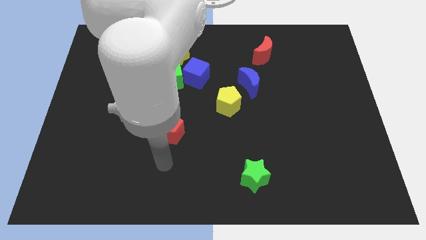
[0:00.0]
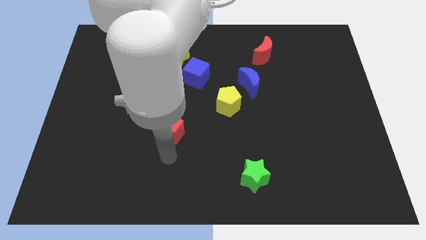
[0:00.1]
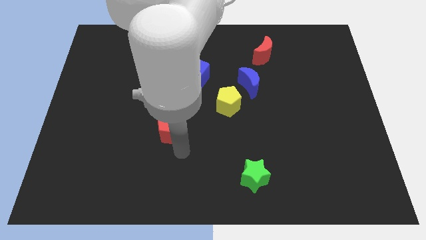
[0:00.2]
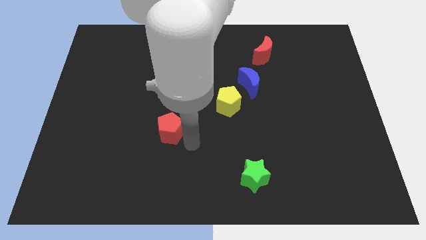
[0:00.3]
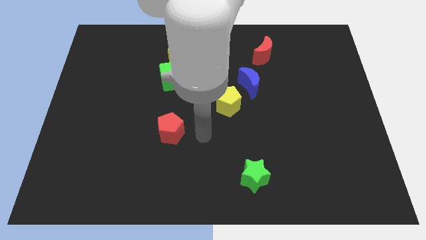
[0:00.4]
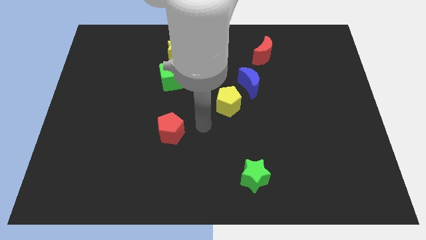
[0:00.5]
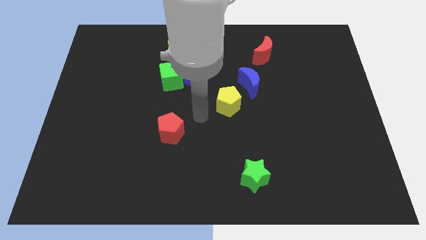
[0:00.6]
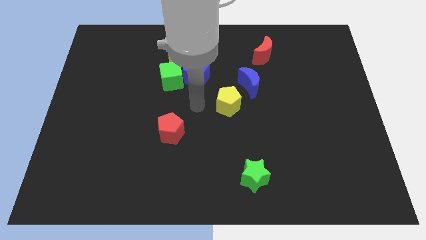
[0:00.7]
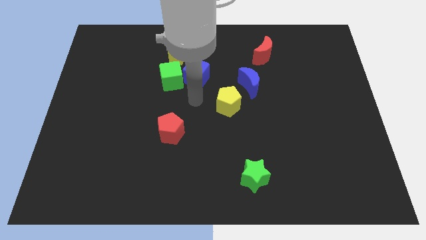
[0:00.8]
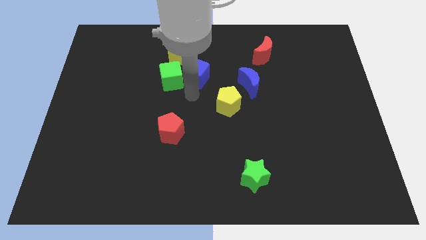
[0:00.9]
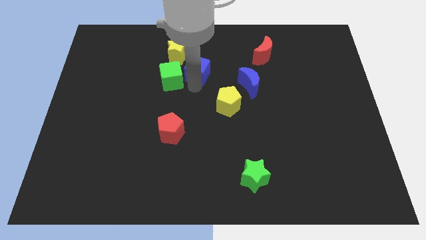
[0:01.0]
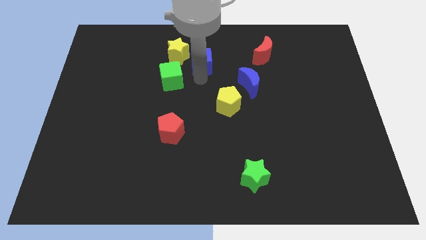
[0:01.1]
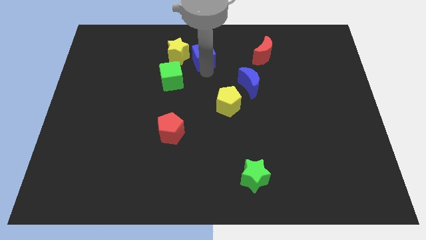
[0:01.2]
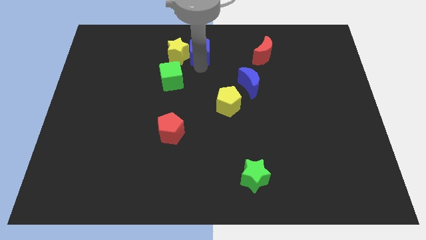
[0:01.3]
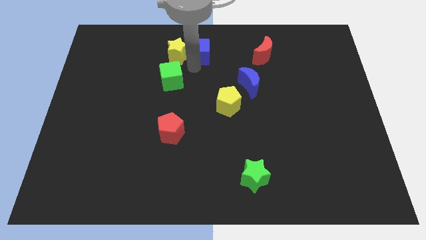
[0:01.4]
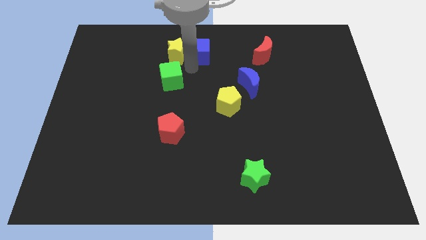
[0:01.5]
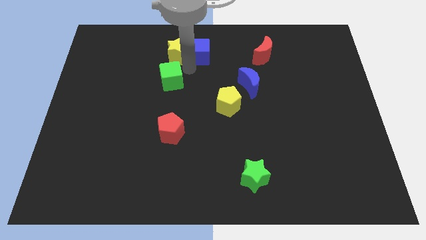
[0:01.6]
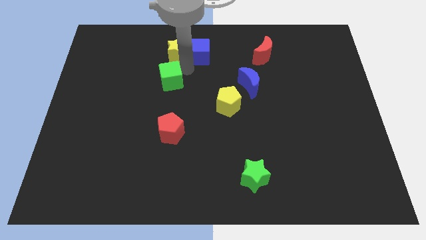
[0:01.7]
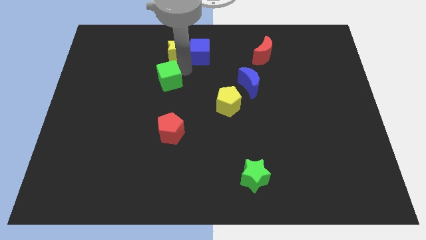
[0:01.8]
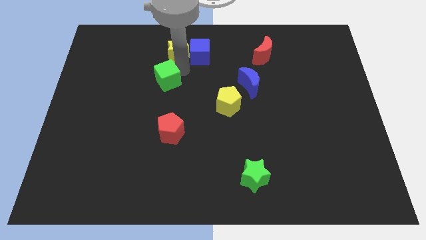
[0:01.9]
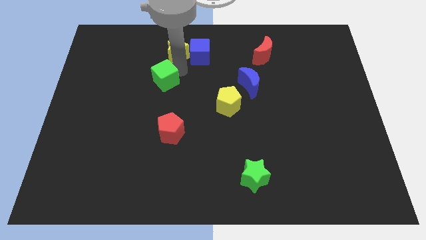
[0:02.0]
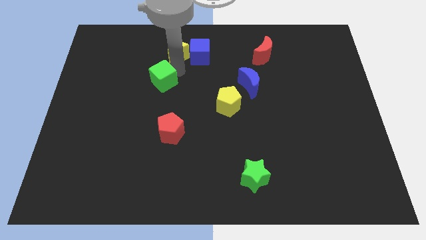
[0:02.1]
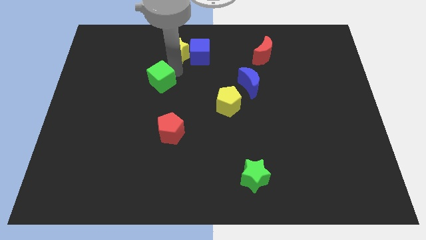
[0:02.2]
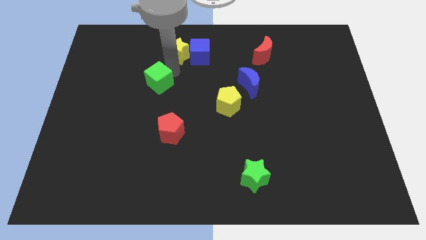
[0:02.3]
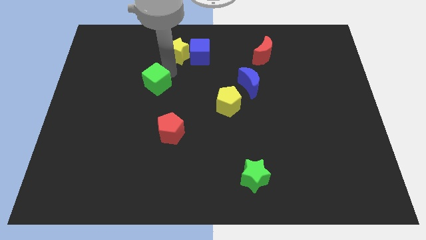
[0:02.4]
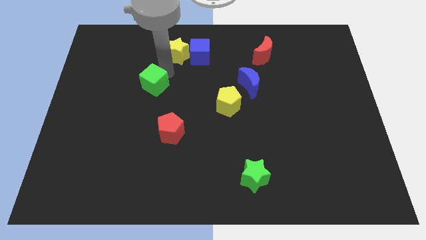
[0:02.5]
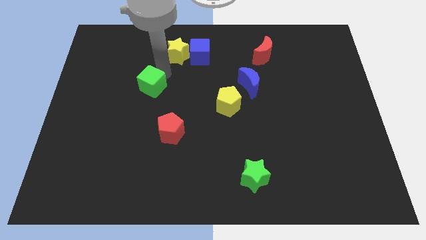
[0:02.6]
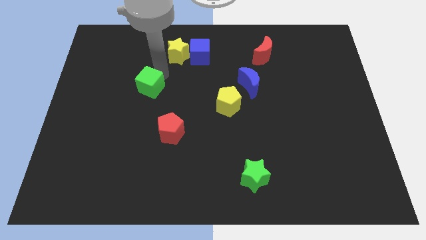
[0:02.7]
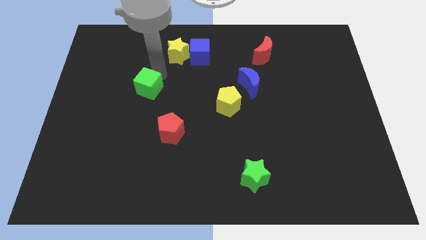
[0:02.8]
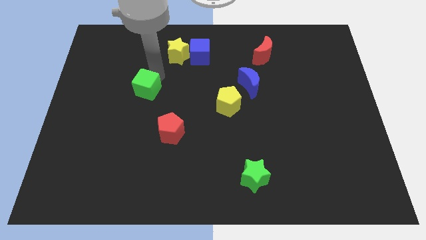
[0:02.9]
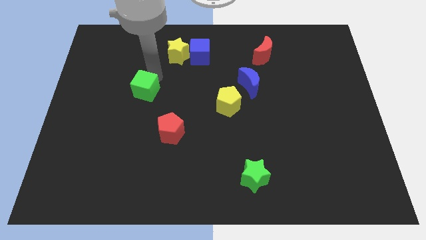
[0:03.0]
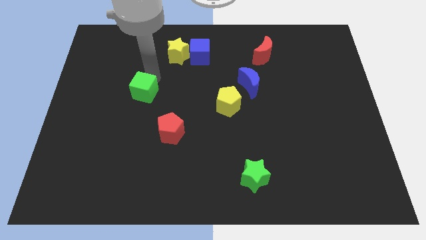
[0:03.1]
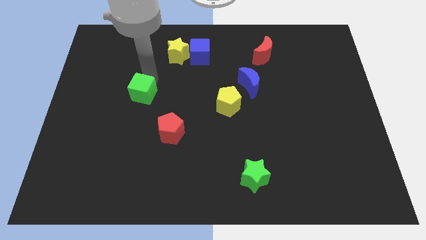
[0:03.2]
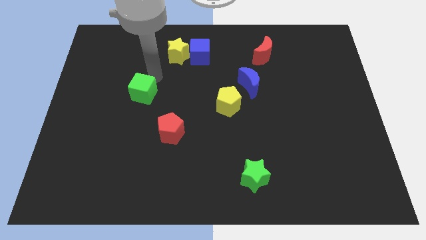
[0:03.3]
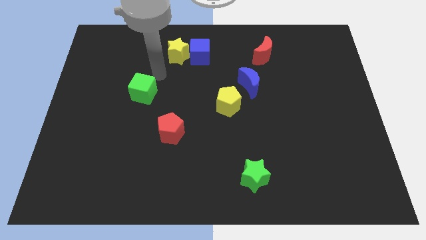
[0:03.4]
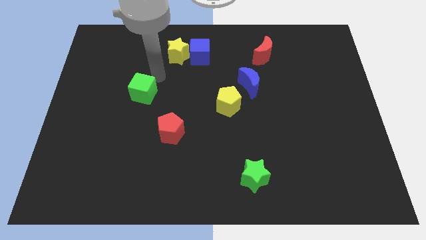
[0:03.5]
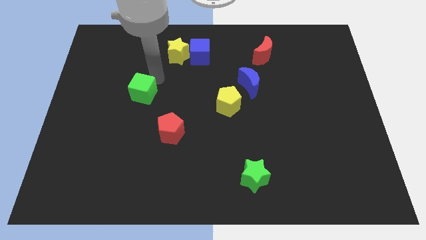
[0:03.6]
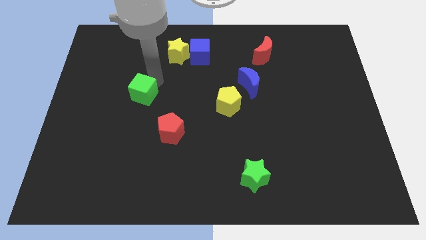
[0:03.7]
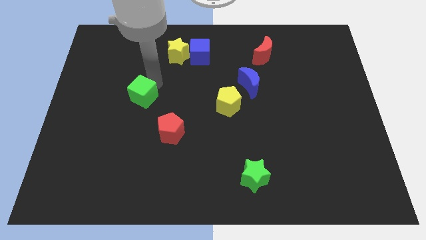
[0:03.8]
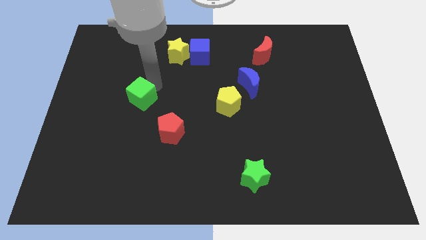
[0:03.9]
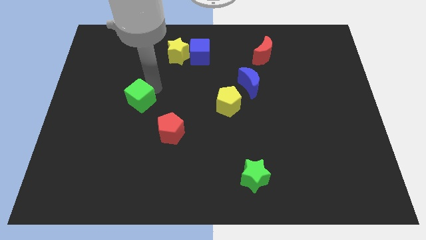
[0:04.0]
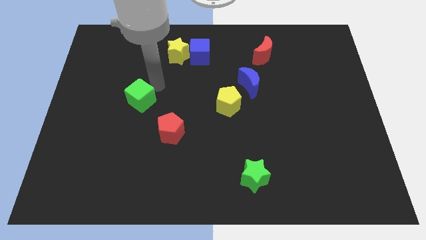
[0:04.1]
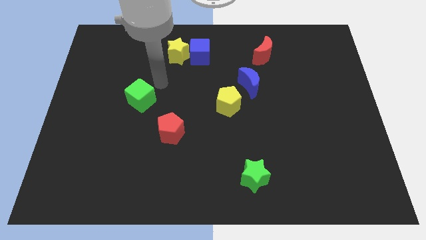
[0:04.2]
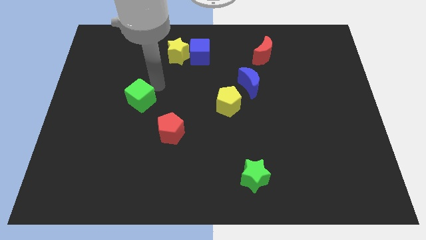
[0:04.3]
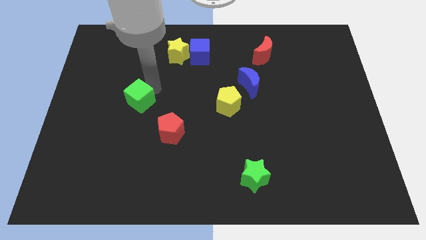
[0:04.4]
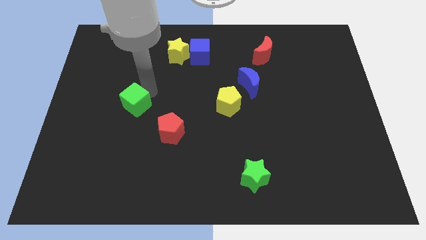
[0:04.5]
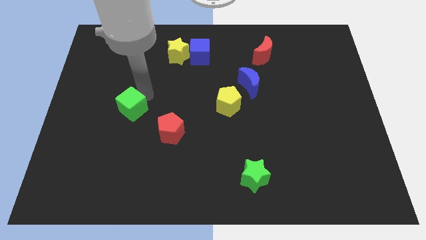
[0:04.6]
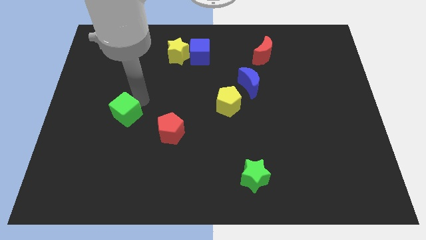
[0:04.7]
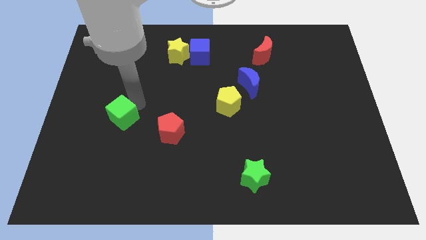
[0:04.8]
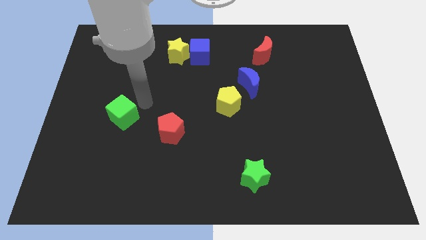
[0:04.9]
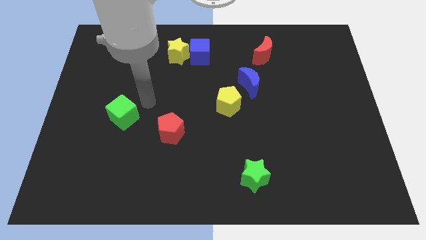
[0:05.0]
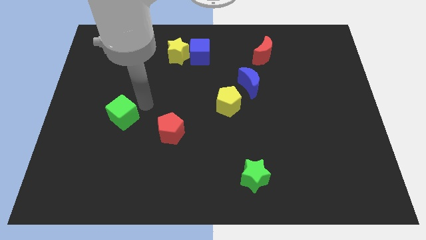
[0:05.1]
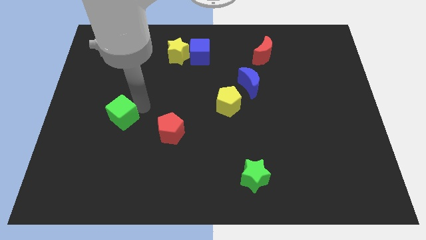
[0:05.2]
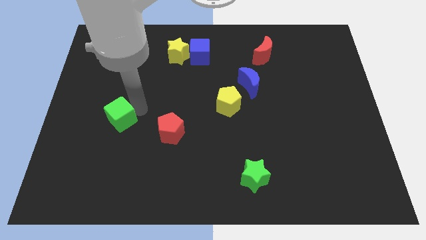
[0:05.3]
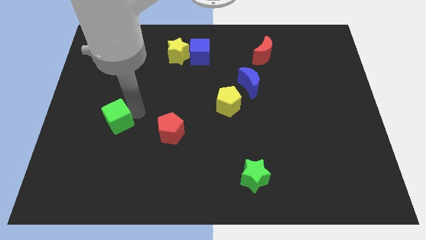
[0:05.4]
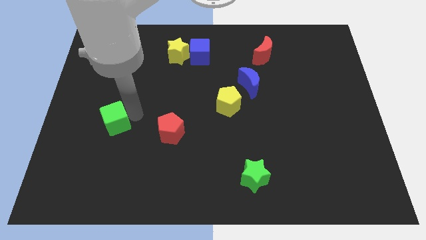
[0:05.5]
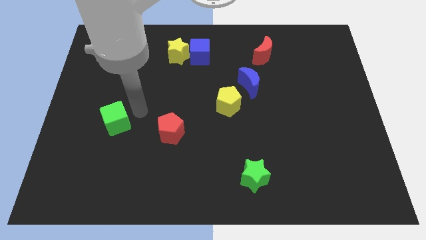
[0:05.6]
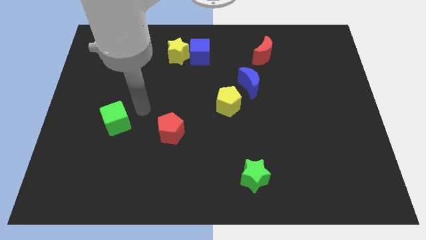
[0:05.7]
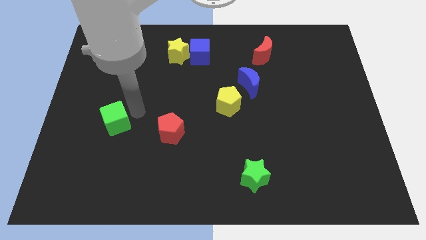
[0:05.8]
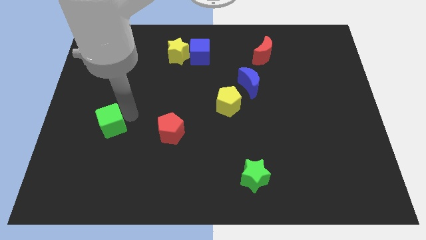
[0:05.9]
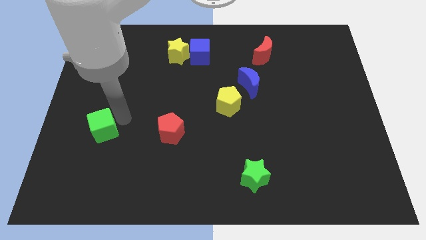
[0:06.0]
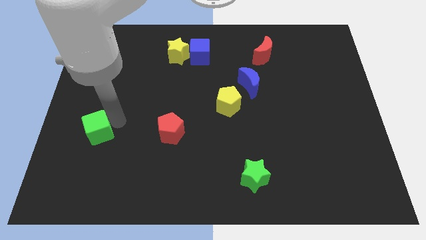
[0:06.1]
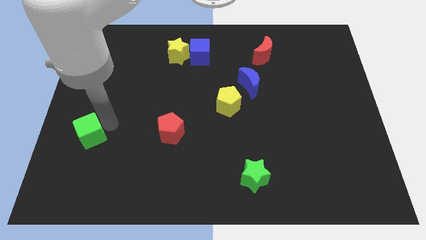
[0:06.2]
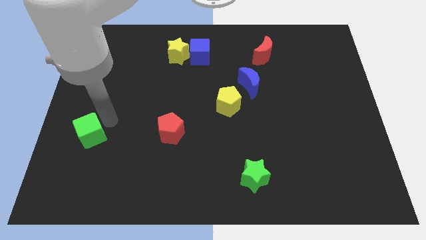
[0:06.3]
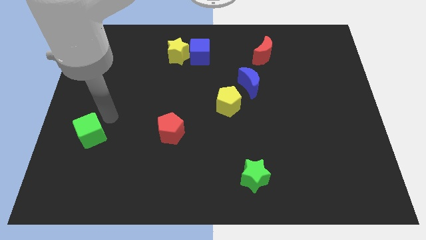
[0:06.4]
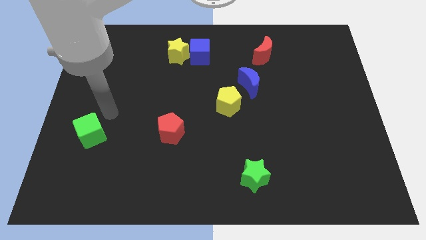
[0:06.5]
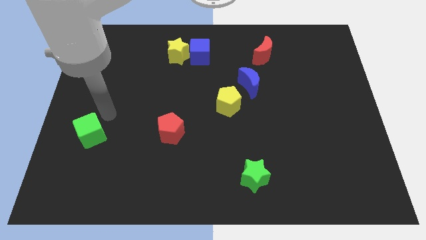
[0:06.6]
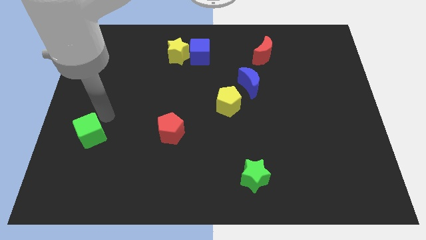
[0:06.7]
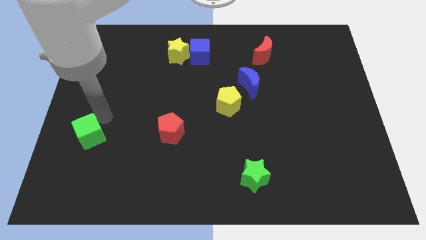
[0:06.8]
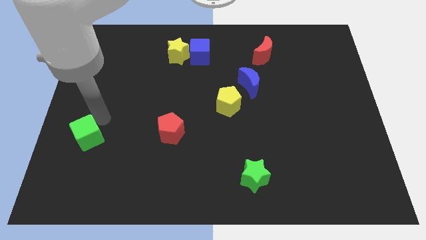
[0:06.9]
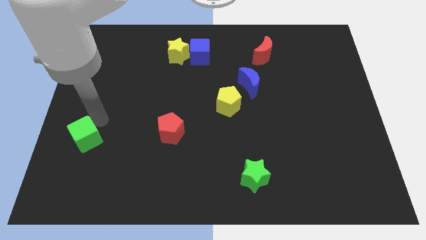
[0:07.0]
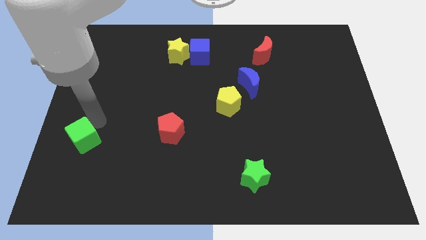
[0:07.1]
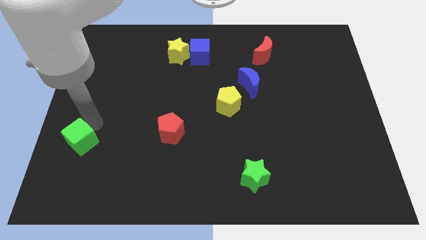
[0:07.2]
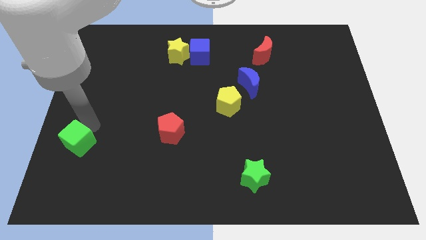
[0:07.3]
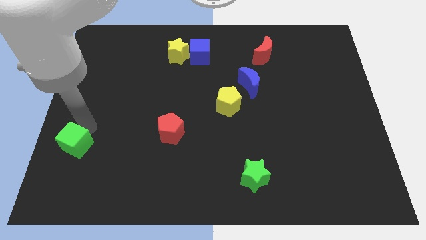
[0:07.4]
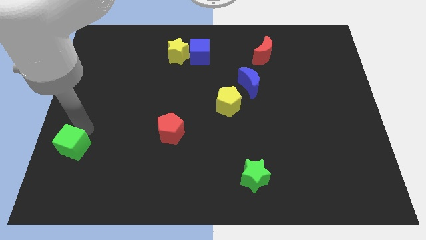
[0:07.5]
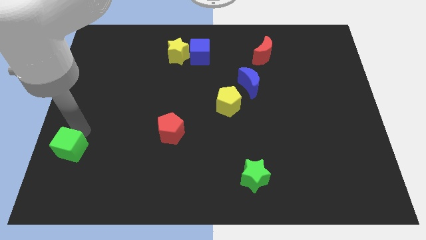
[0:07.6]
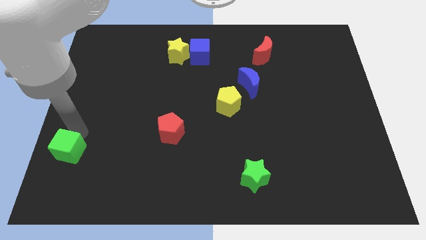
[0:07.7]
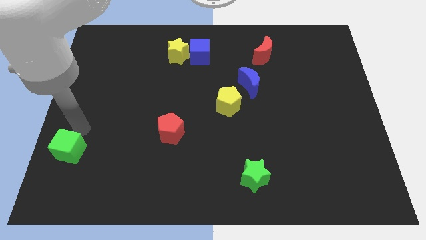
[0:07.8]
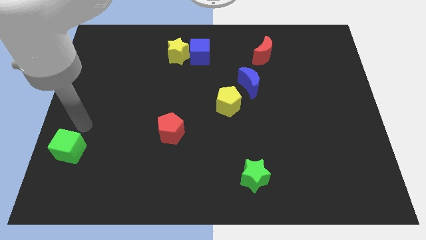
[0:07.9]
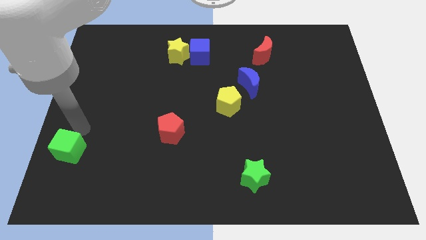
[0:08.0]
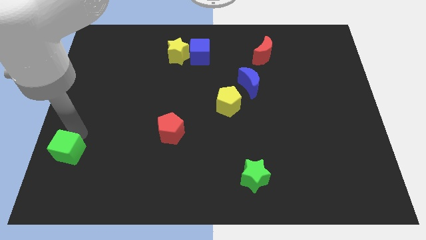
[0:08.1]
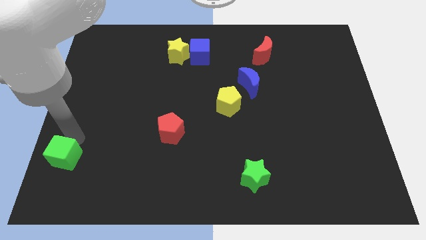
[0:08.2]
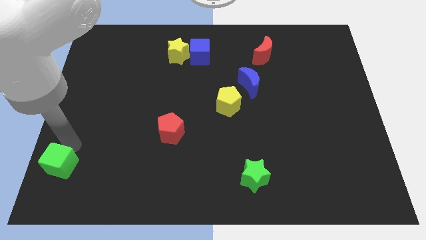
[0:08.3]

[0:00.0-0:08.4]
slide the green cube to the bottom left corner
